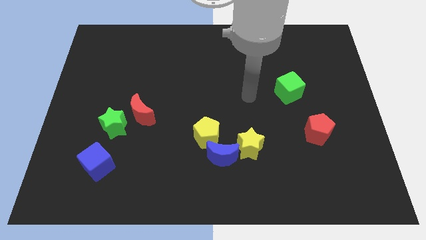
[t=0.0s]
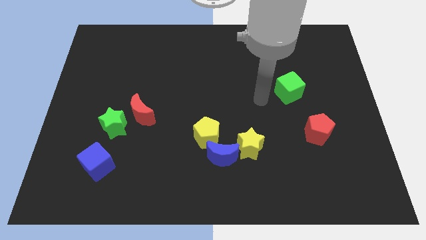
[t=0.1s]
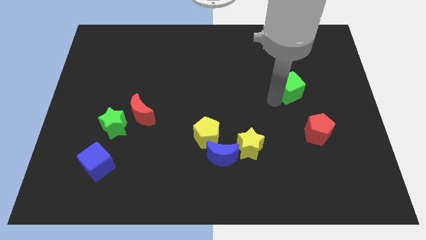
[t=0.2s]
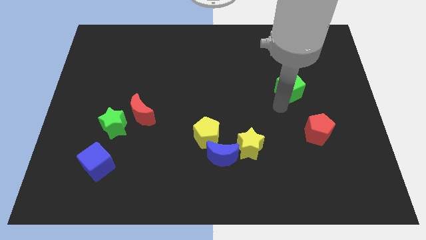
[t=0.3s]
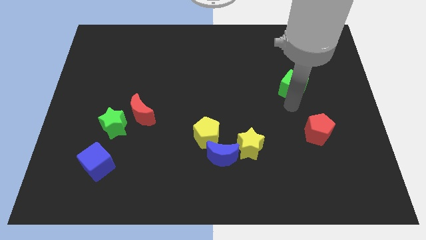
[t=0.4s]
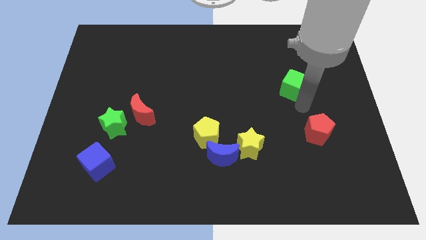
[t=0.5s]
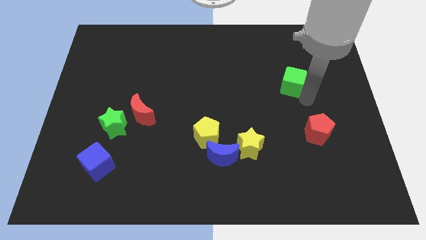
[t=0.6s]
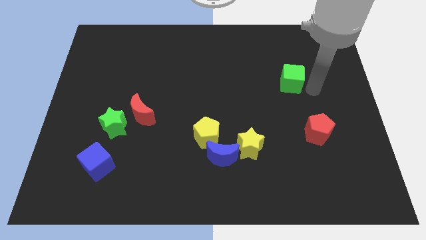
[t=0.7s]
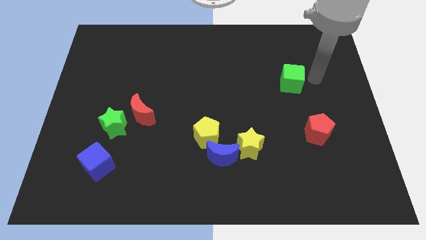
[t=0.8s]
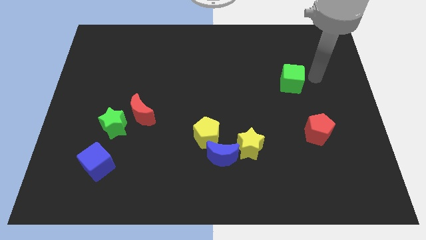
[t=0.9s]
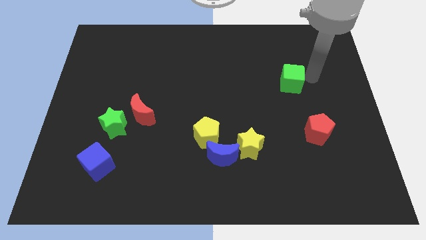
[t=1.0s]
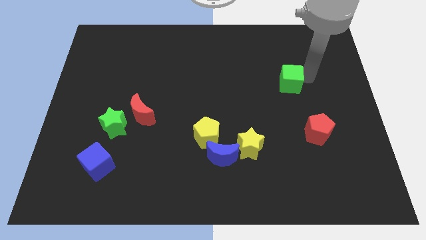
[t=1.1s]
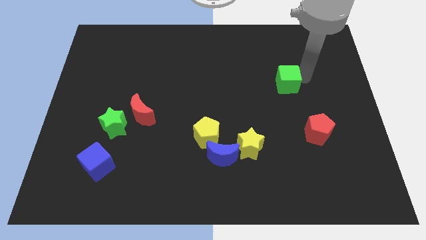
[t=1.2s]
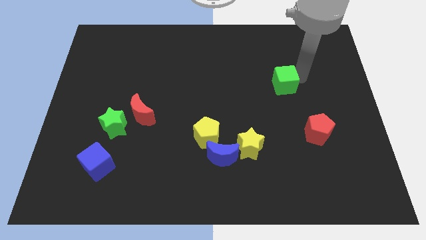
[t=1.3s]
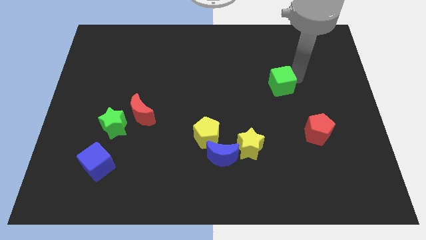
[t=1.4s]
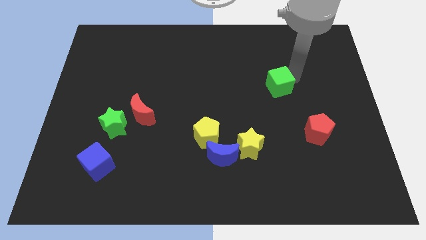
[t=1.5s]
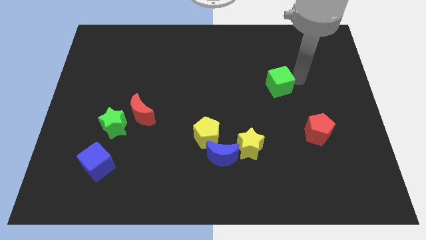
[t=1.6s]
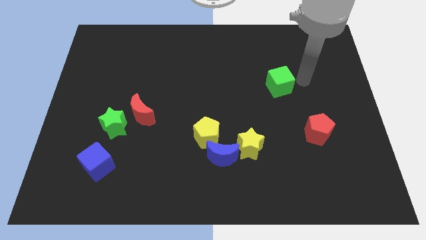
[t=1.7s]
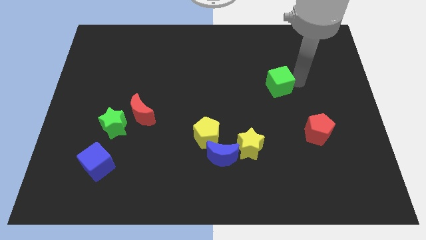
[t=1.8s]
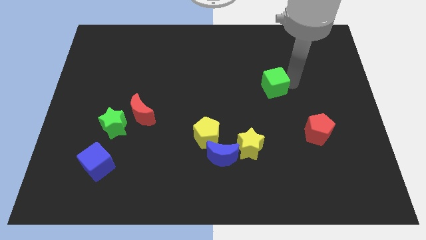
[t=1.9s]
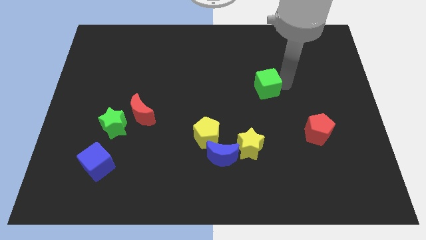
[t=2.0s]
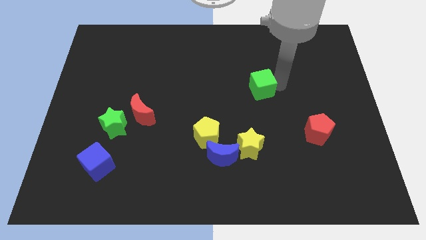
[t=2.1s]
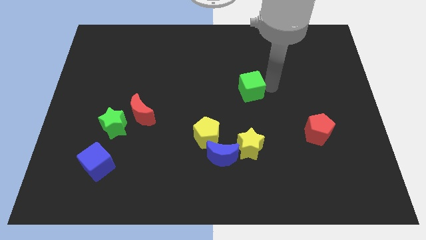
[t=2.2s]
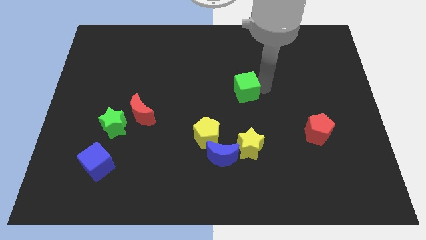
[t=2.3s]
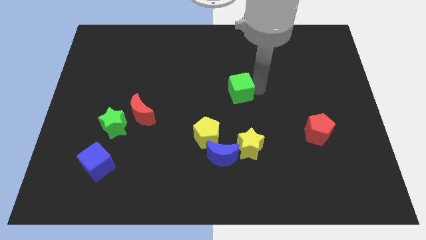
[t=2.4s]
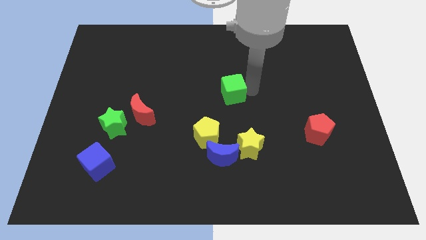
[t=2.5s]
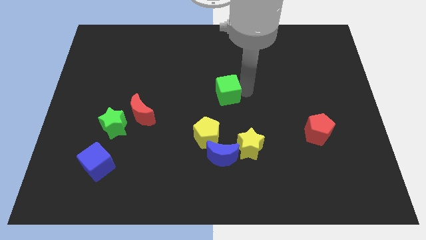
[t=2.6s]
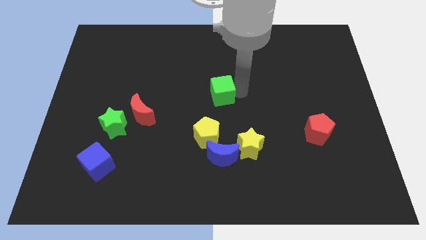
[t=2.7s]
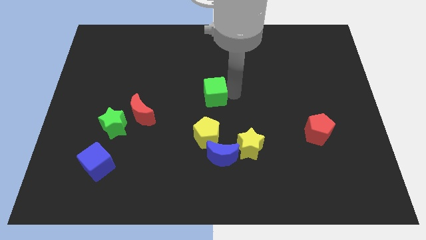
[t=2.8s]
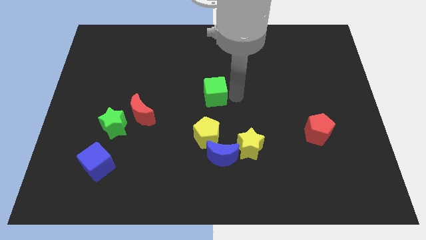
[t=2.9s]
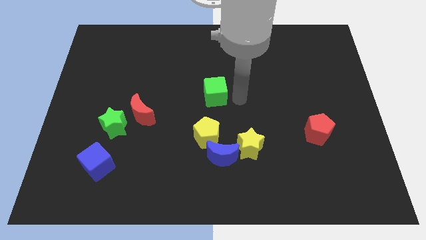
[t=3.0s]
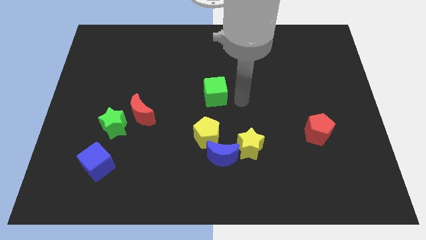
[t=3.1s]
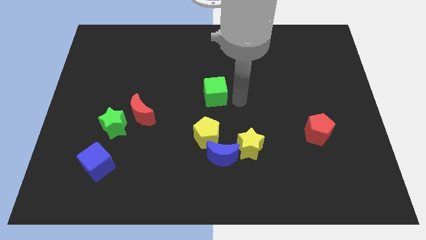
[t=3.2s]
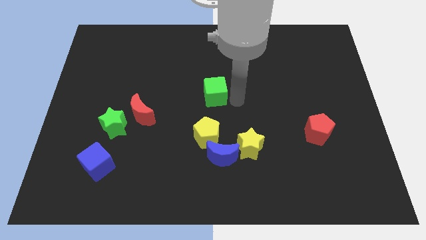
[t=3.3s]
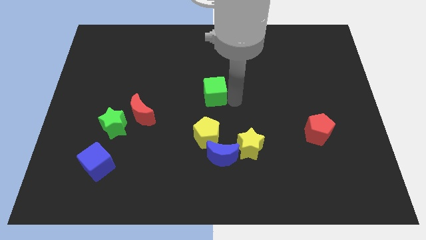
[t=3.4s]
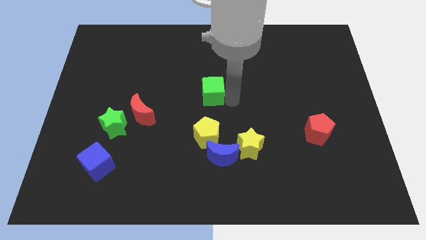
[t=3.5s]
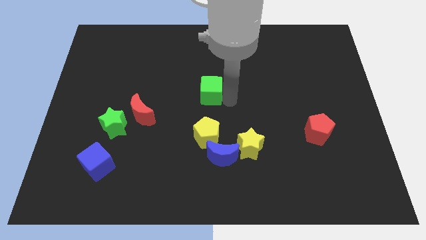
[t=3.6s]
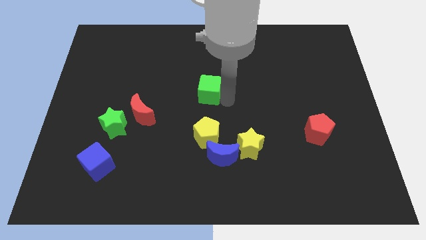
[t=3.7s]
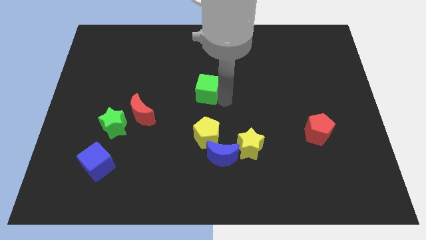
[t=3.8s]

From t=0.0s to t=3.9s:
push the green cube left

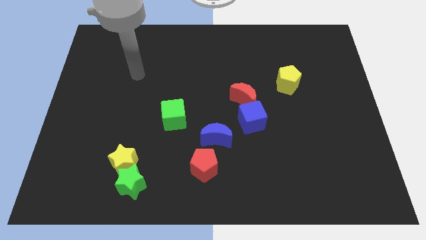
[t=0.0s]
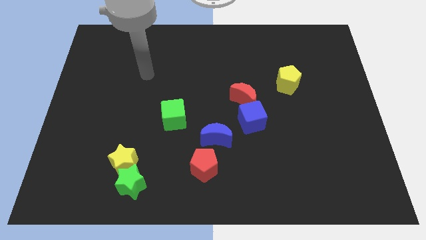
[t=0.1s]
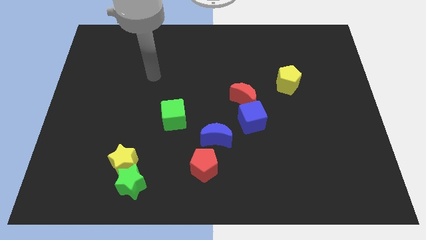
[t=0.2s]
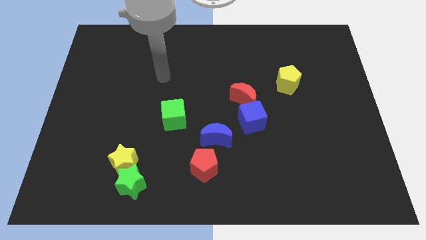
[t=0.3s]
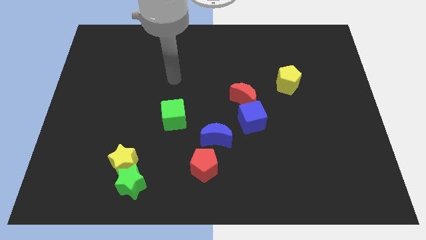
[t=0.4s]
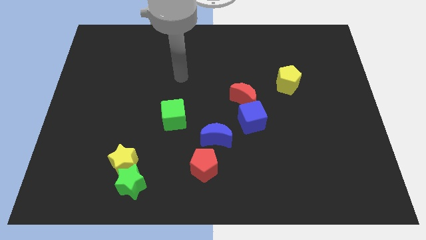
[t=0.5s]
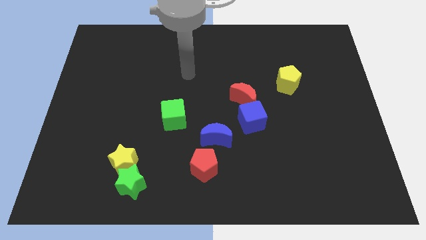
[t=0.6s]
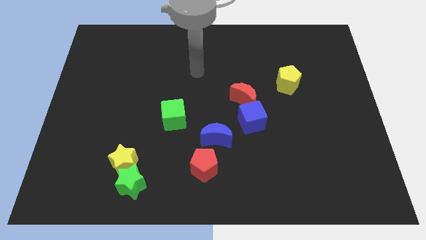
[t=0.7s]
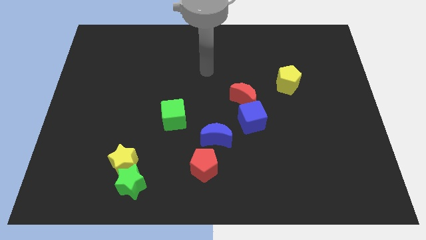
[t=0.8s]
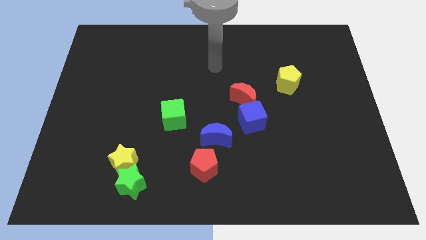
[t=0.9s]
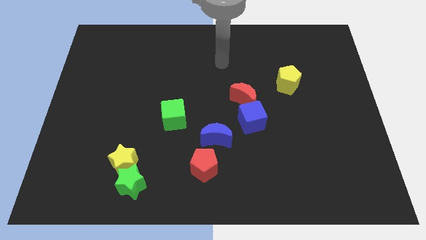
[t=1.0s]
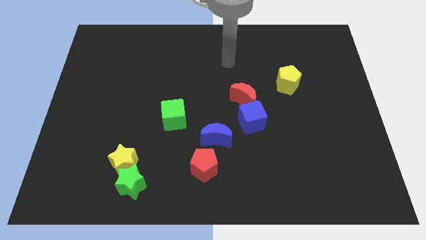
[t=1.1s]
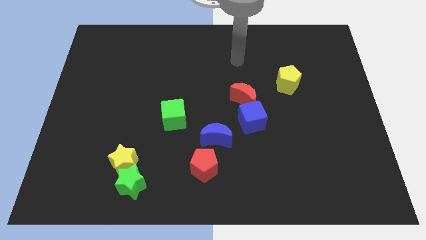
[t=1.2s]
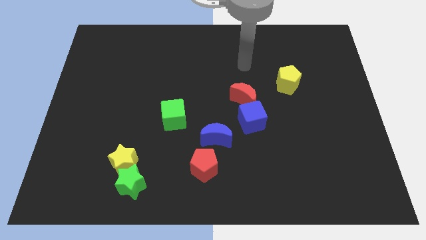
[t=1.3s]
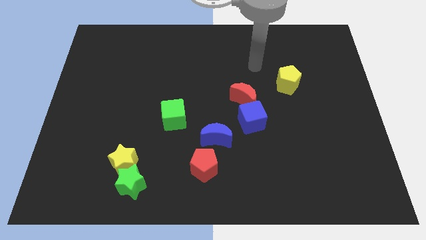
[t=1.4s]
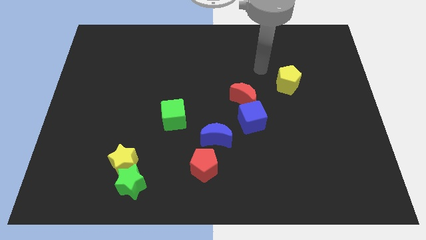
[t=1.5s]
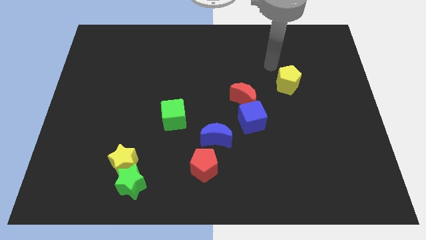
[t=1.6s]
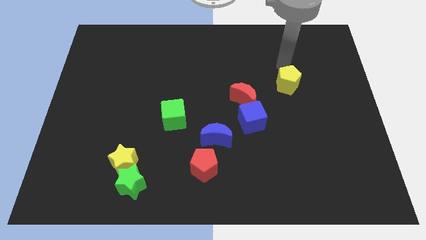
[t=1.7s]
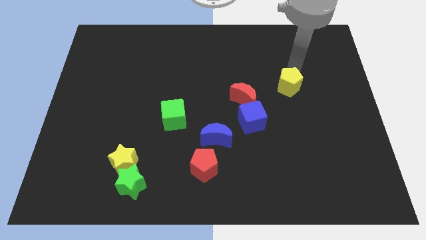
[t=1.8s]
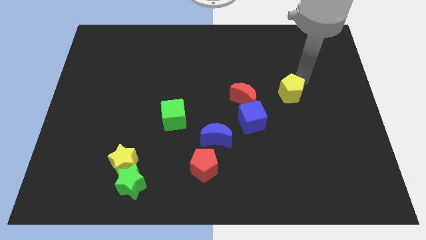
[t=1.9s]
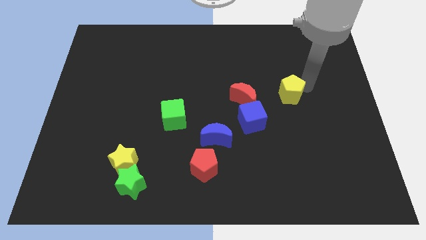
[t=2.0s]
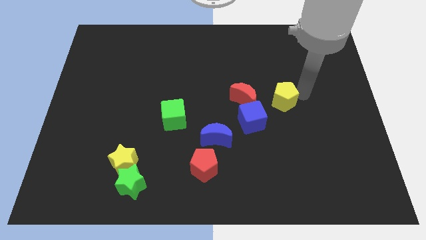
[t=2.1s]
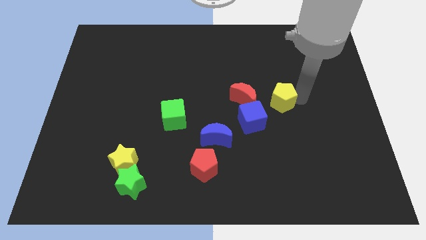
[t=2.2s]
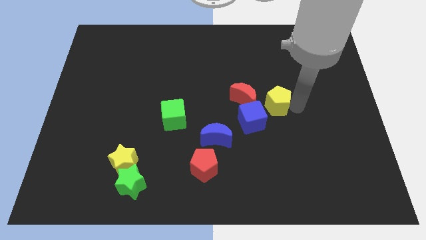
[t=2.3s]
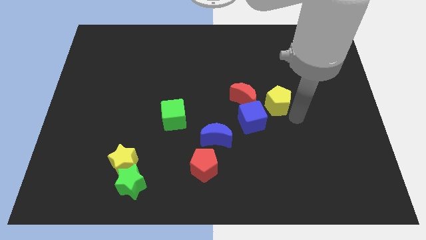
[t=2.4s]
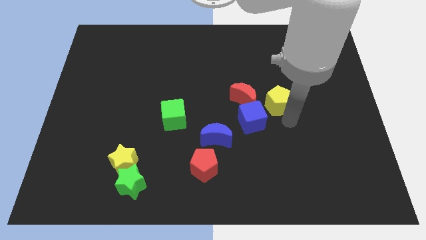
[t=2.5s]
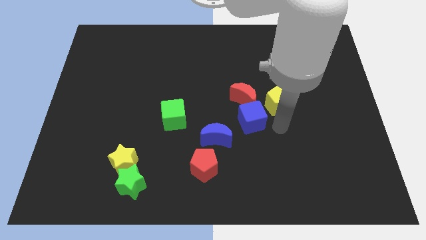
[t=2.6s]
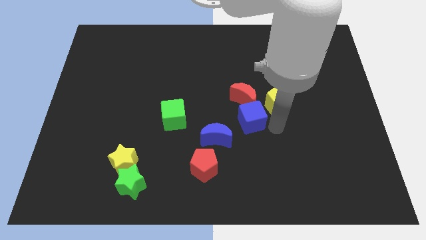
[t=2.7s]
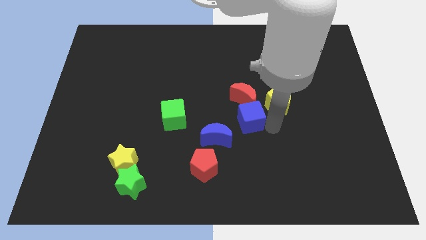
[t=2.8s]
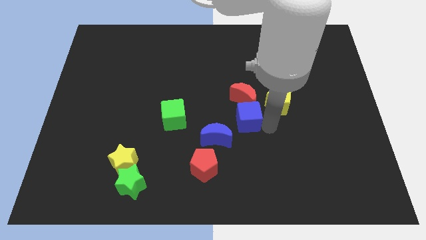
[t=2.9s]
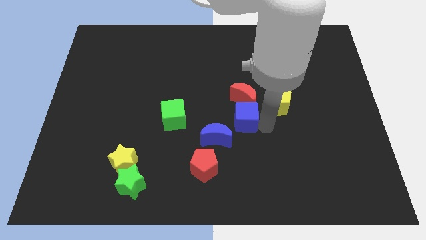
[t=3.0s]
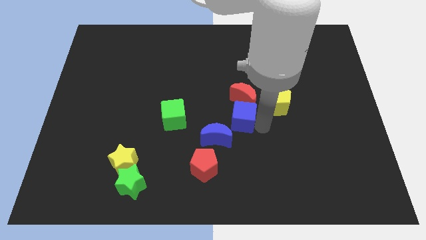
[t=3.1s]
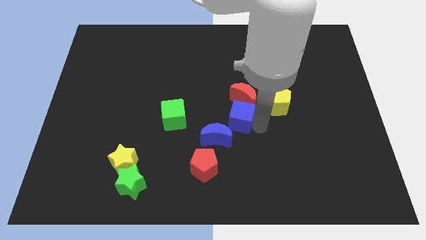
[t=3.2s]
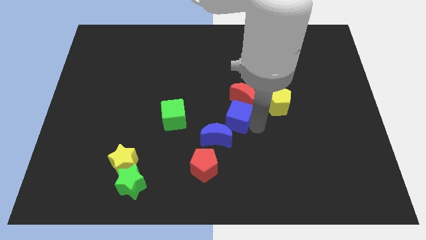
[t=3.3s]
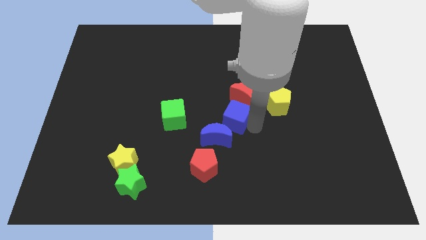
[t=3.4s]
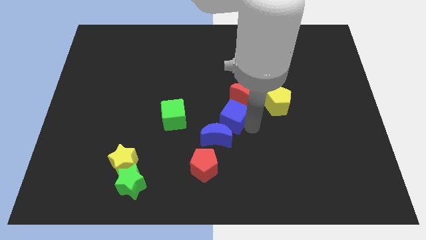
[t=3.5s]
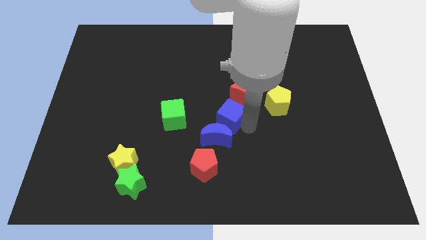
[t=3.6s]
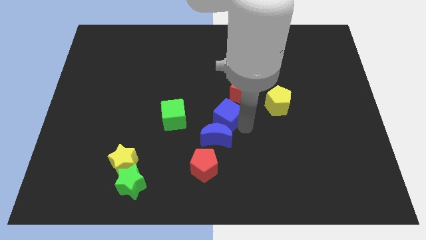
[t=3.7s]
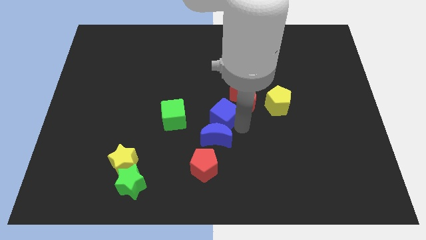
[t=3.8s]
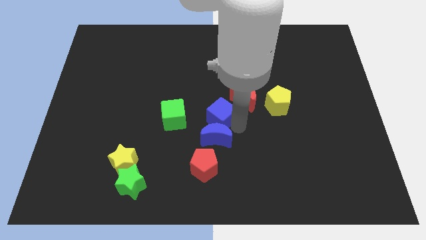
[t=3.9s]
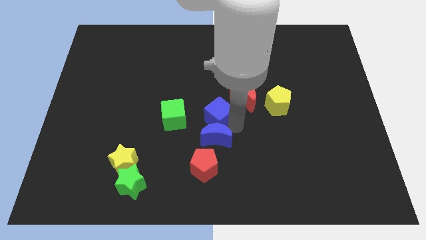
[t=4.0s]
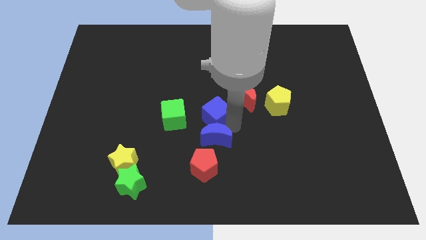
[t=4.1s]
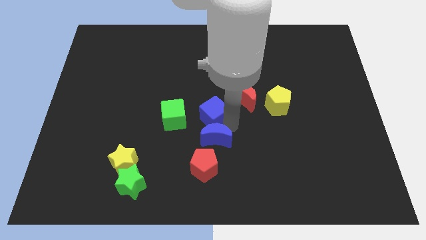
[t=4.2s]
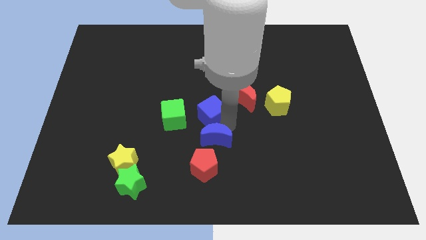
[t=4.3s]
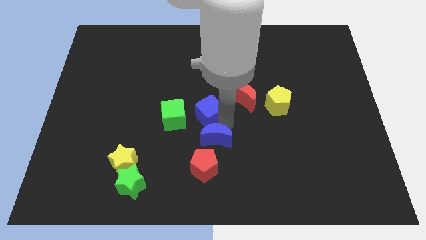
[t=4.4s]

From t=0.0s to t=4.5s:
push the blue cube up and to the left a little bit
